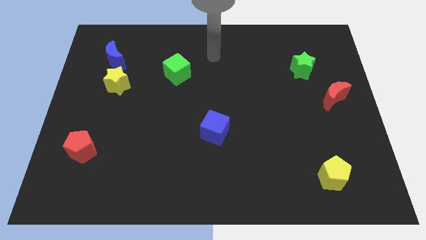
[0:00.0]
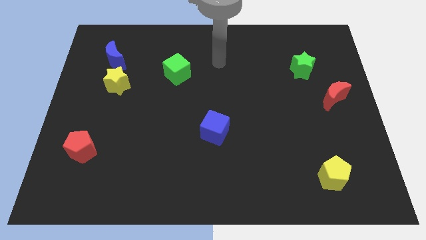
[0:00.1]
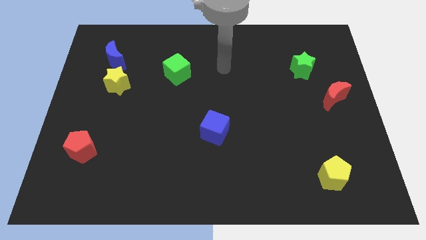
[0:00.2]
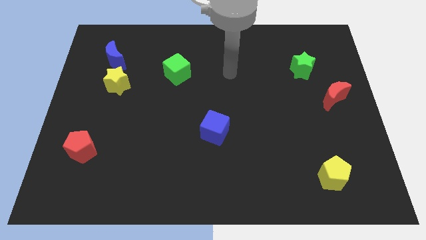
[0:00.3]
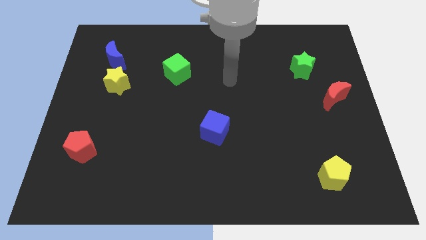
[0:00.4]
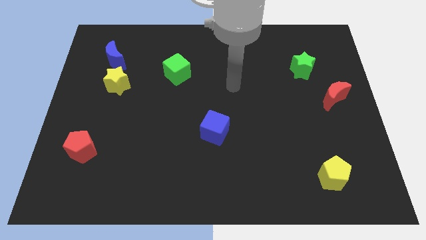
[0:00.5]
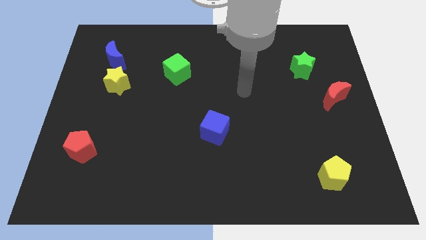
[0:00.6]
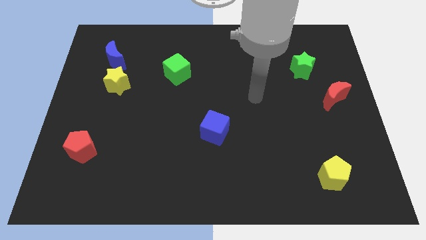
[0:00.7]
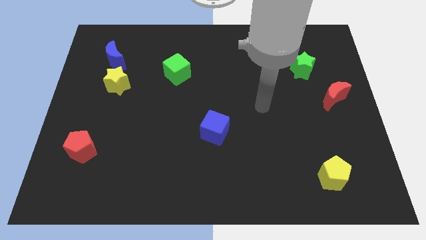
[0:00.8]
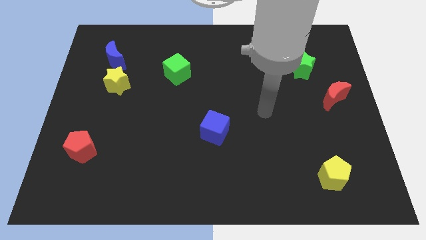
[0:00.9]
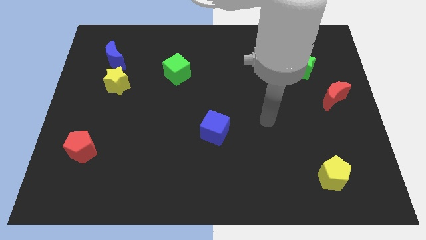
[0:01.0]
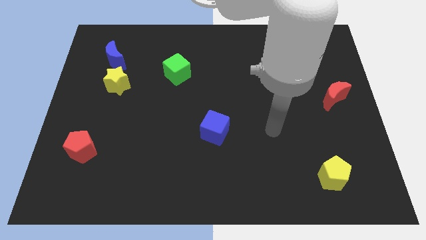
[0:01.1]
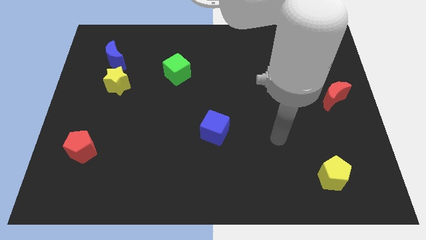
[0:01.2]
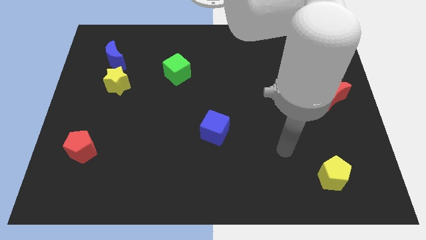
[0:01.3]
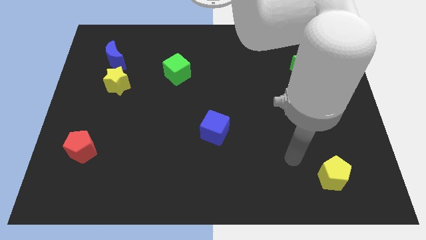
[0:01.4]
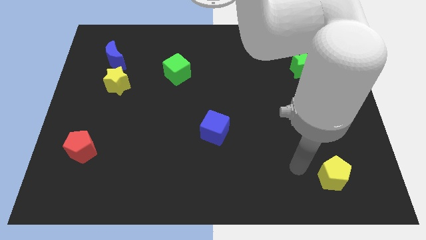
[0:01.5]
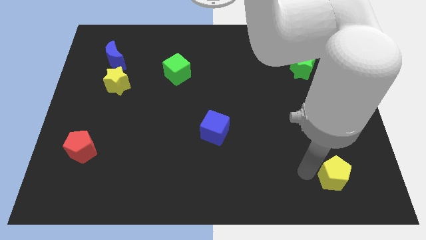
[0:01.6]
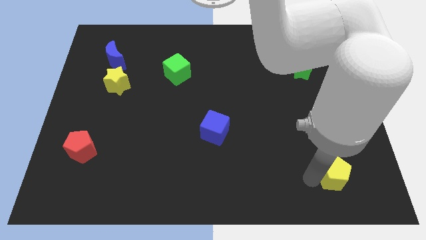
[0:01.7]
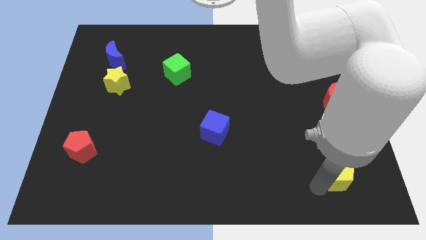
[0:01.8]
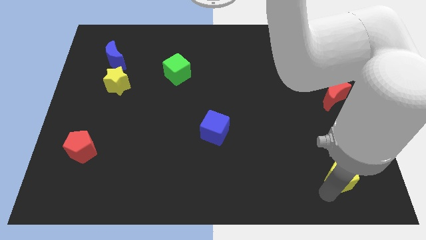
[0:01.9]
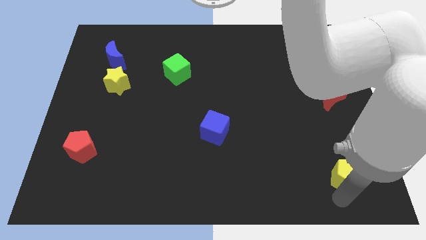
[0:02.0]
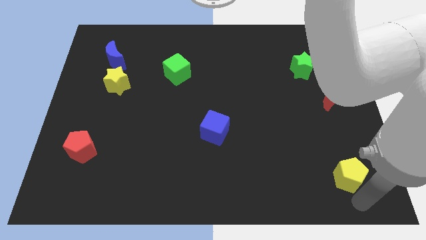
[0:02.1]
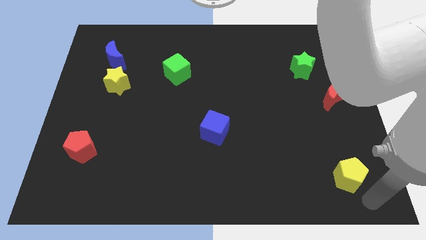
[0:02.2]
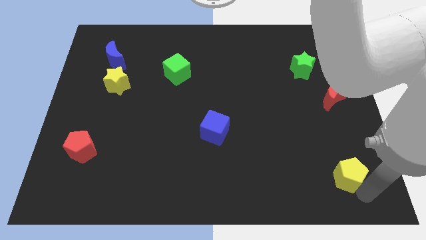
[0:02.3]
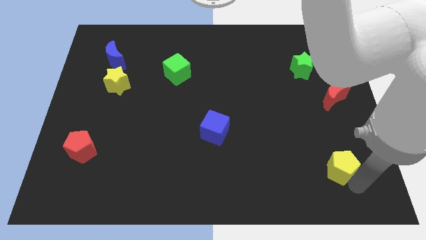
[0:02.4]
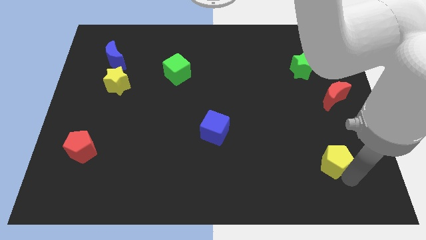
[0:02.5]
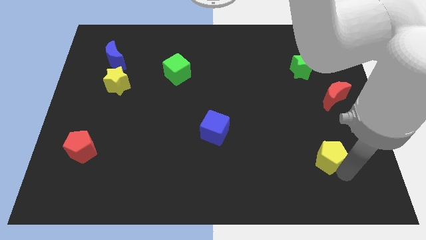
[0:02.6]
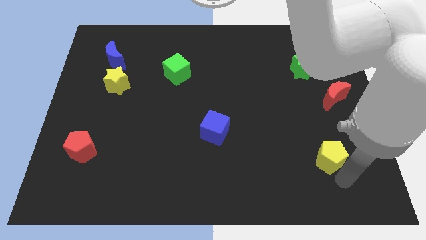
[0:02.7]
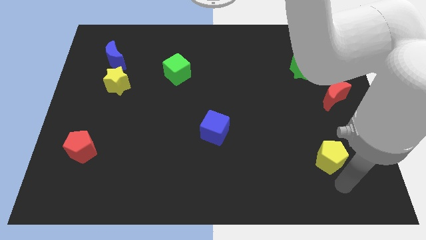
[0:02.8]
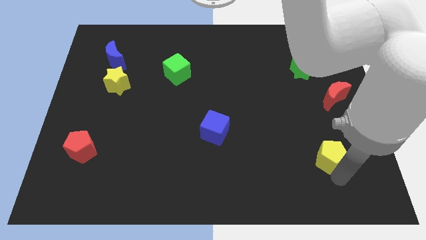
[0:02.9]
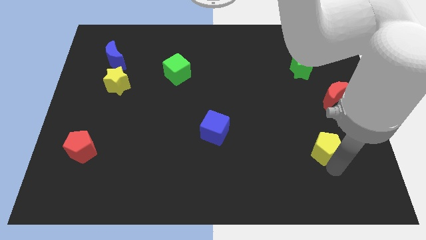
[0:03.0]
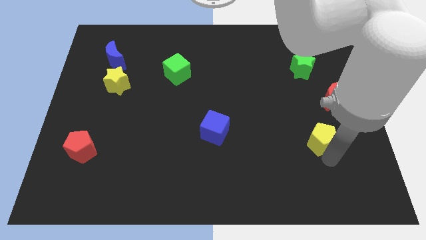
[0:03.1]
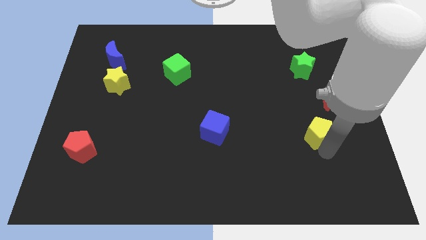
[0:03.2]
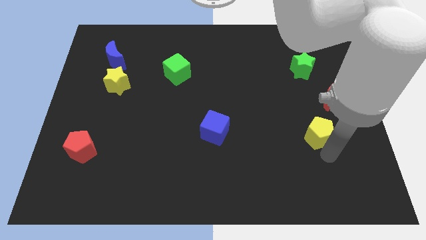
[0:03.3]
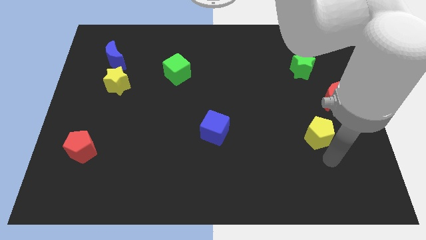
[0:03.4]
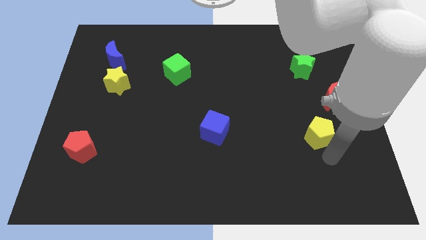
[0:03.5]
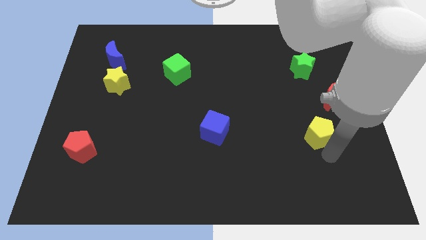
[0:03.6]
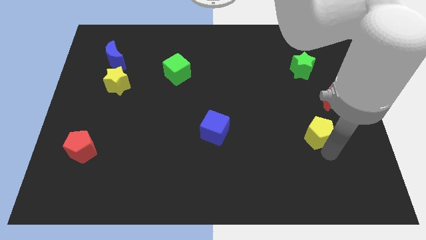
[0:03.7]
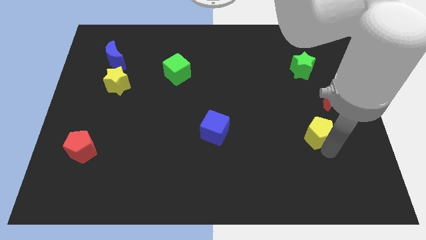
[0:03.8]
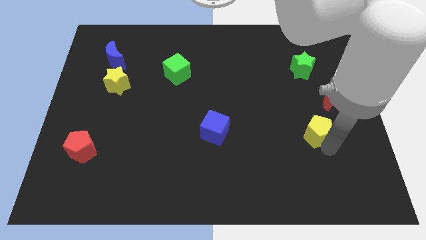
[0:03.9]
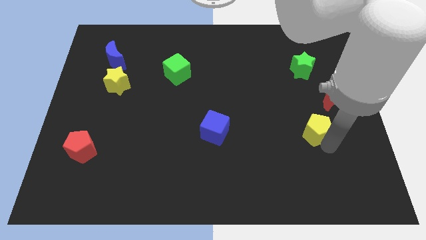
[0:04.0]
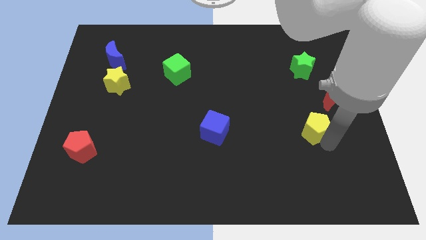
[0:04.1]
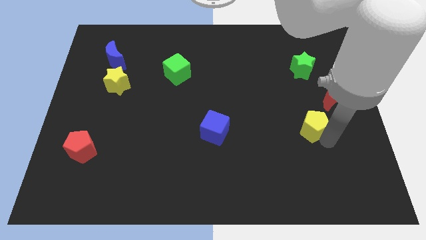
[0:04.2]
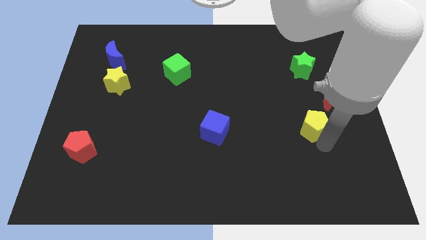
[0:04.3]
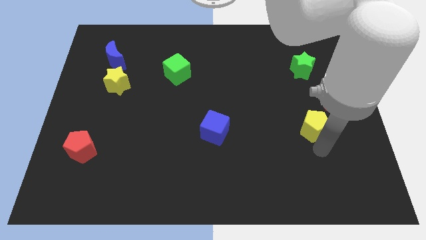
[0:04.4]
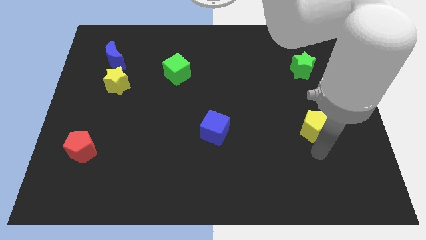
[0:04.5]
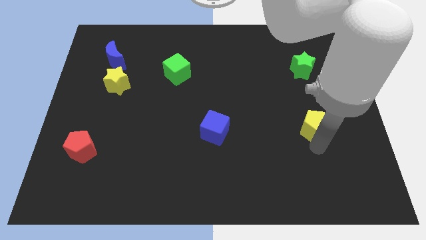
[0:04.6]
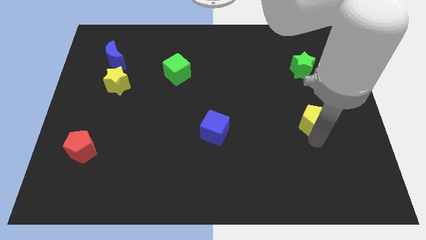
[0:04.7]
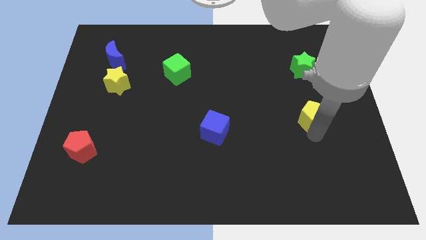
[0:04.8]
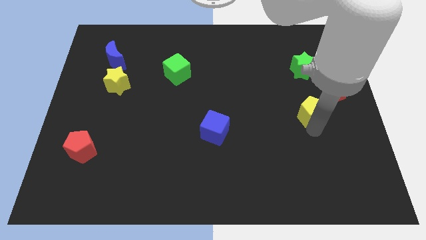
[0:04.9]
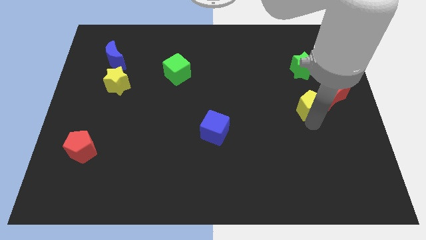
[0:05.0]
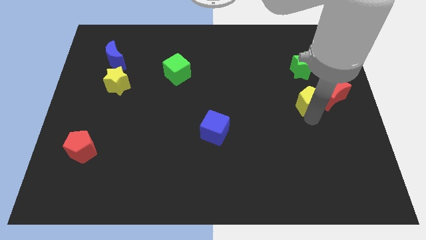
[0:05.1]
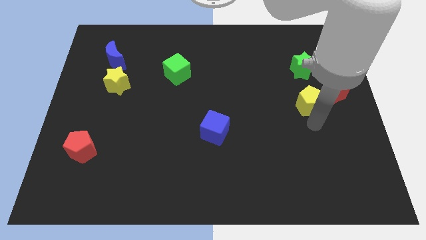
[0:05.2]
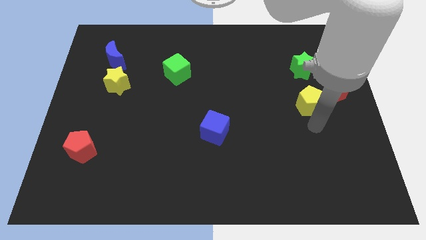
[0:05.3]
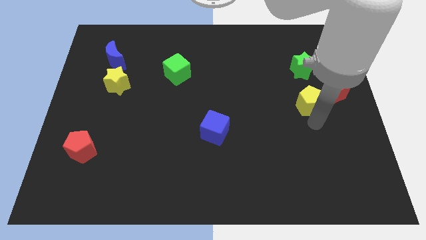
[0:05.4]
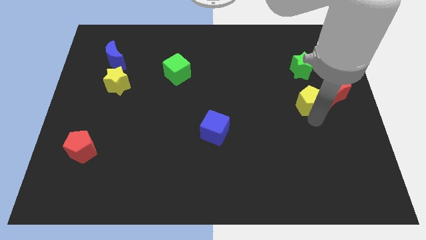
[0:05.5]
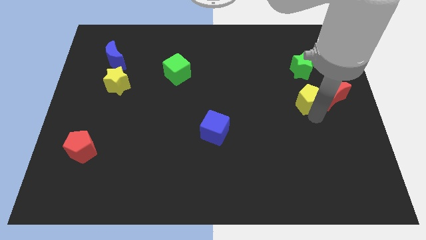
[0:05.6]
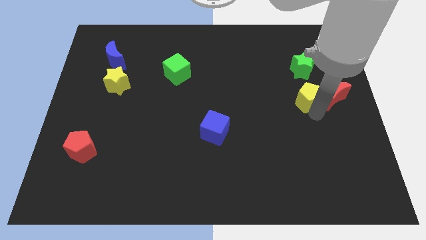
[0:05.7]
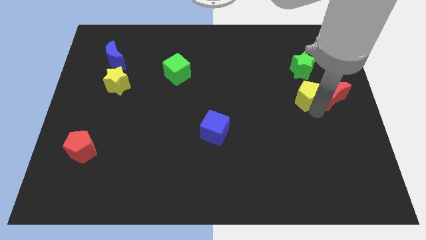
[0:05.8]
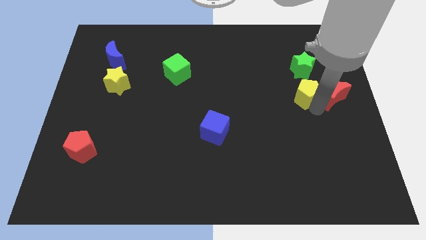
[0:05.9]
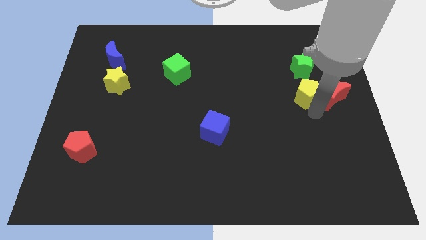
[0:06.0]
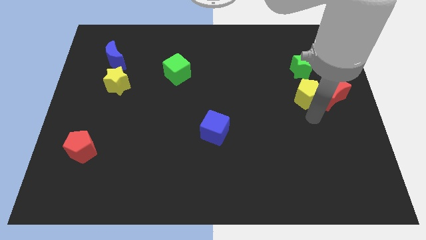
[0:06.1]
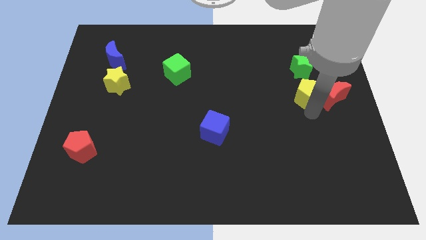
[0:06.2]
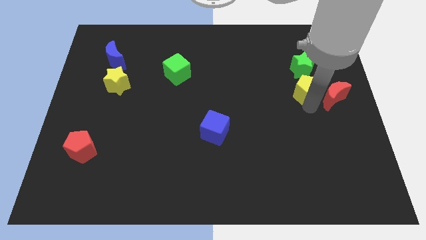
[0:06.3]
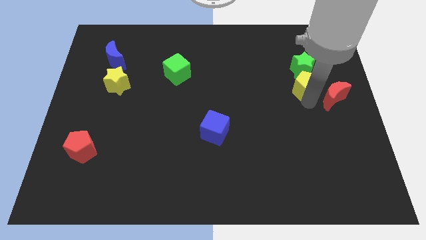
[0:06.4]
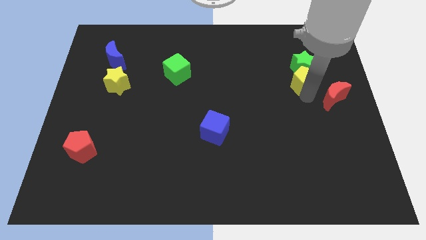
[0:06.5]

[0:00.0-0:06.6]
push the yellow pentagon towards the green star

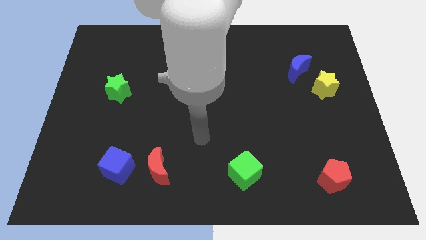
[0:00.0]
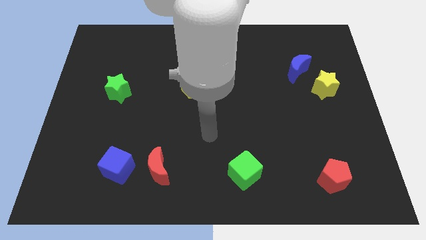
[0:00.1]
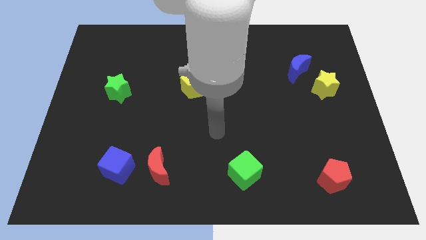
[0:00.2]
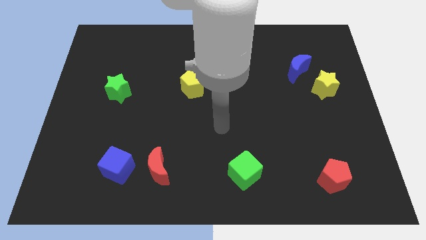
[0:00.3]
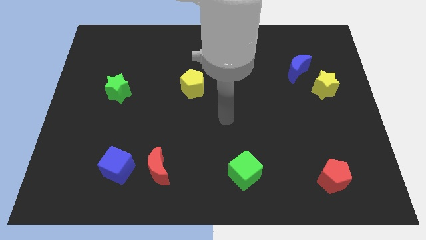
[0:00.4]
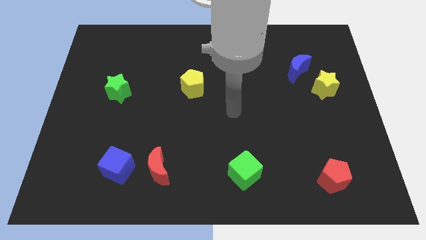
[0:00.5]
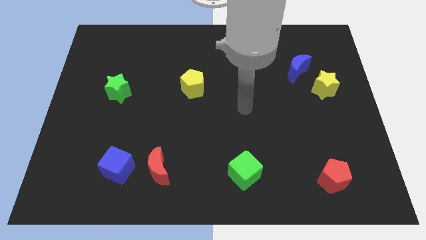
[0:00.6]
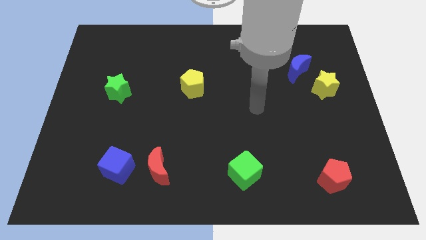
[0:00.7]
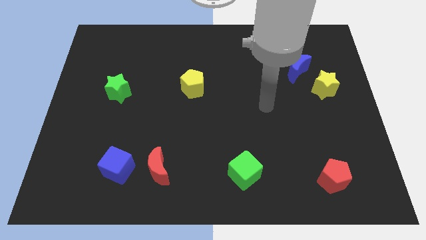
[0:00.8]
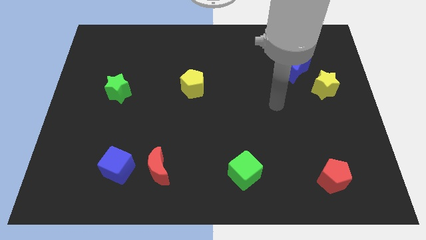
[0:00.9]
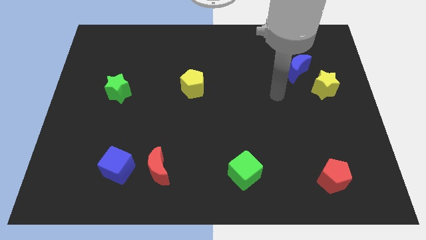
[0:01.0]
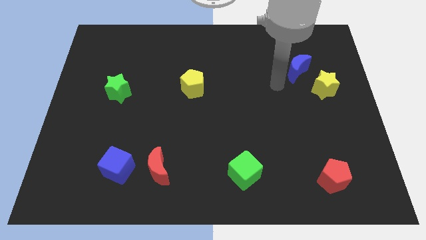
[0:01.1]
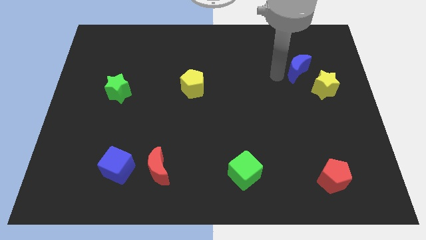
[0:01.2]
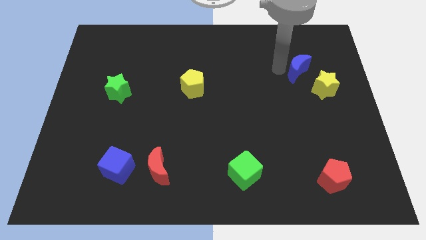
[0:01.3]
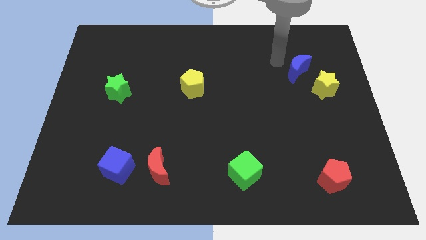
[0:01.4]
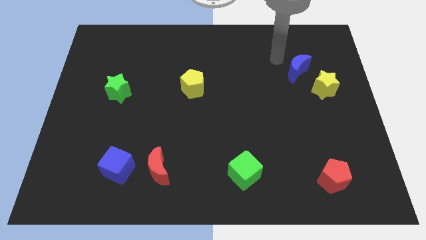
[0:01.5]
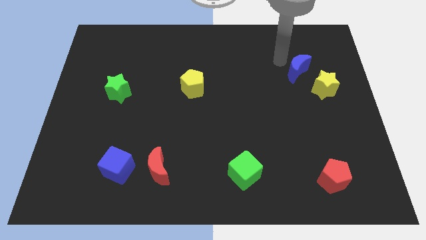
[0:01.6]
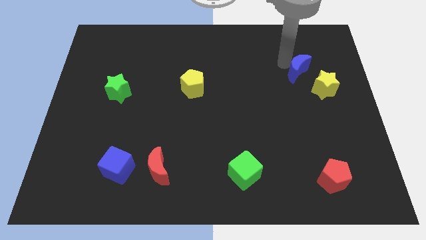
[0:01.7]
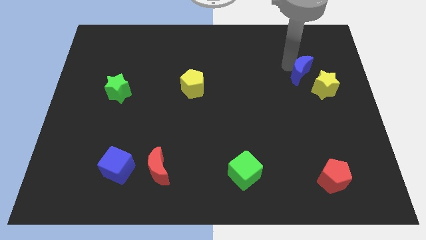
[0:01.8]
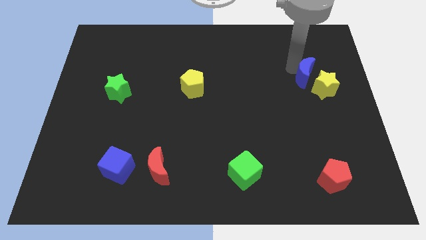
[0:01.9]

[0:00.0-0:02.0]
push the blue moon towards the yellow star
